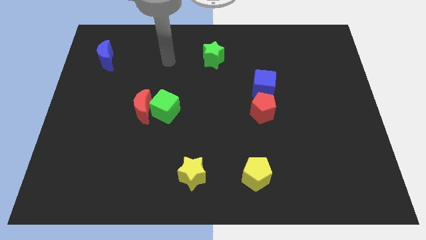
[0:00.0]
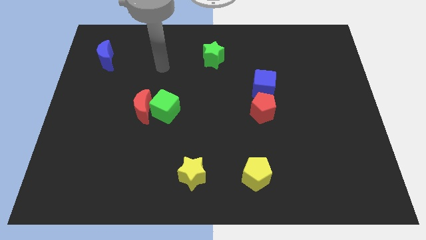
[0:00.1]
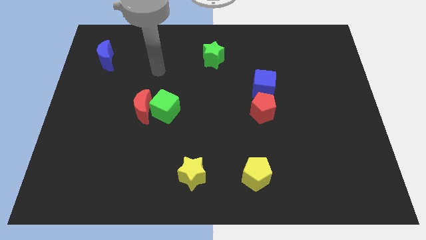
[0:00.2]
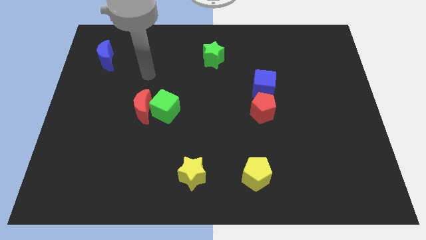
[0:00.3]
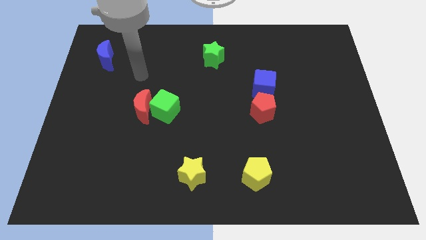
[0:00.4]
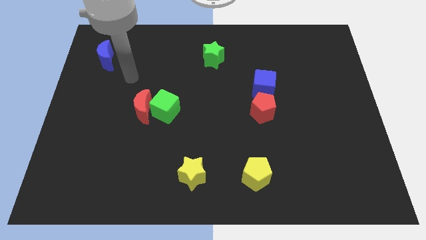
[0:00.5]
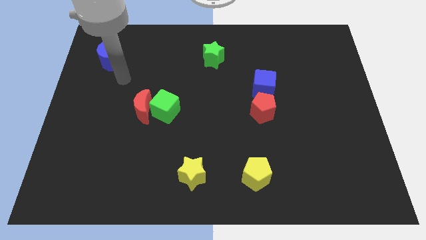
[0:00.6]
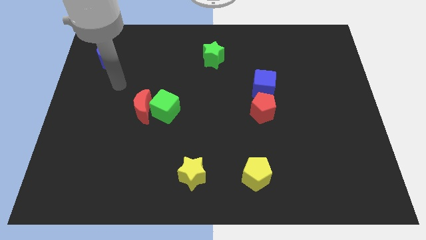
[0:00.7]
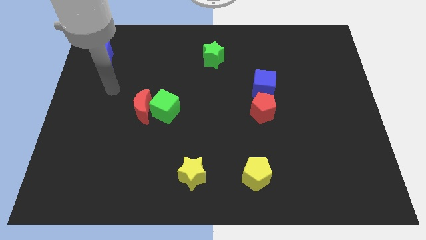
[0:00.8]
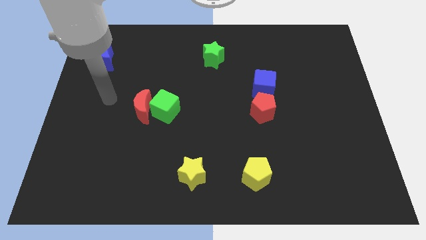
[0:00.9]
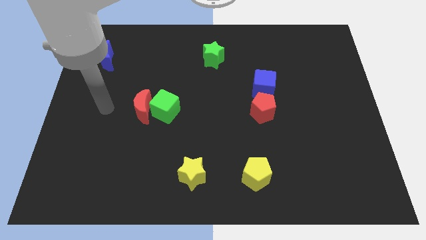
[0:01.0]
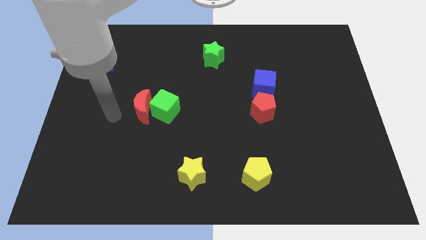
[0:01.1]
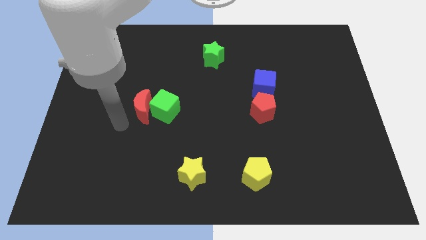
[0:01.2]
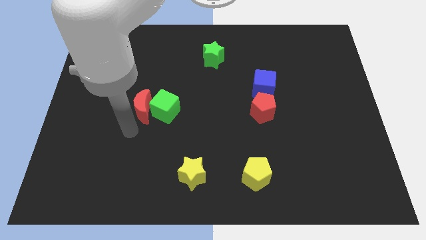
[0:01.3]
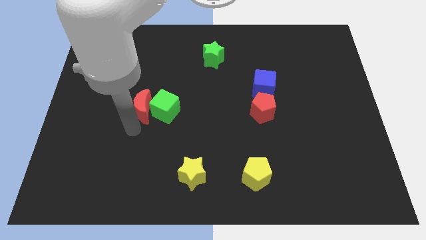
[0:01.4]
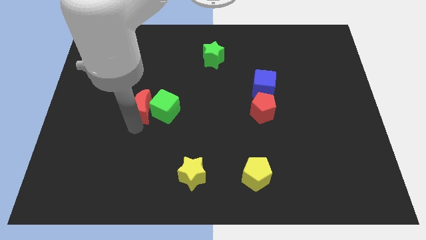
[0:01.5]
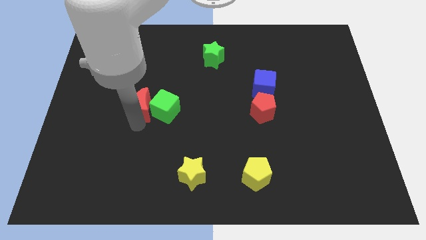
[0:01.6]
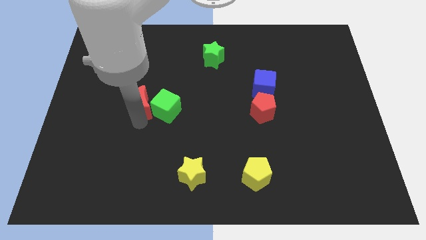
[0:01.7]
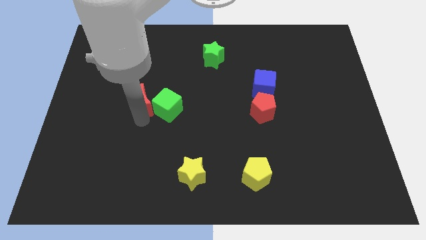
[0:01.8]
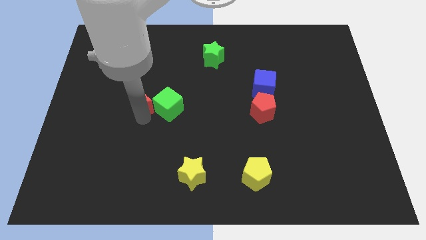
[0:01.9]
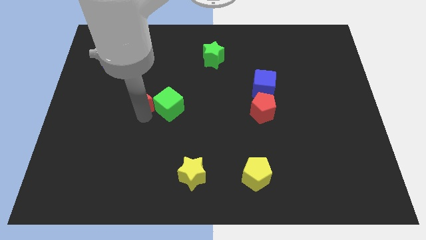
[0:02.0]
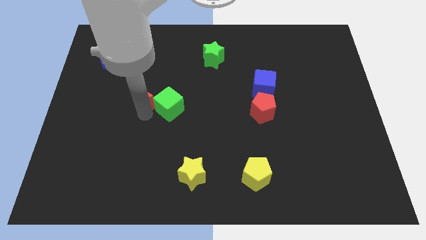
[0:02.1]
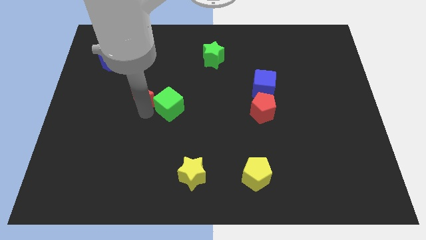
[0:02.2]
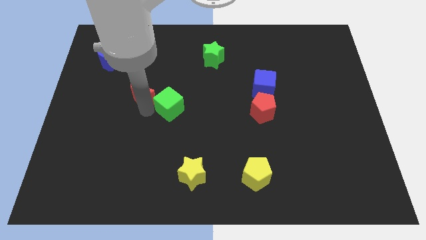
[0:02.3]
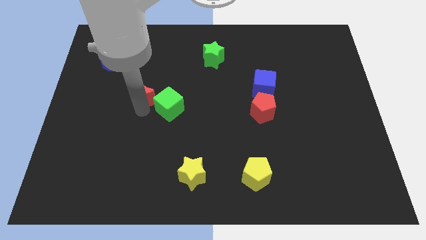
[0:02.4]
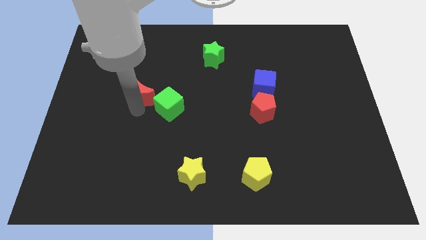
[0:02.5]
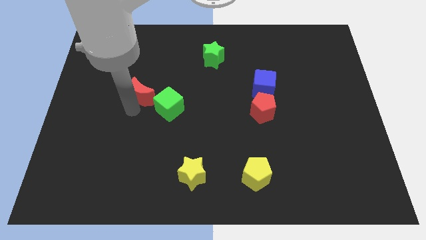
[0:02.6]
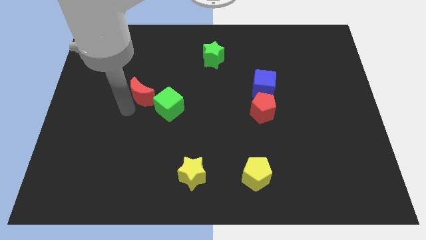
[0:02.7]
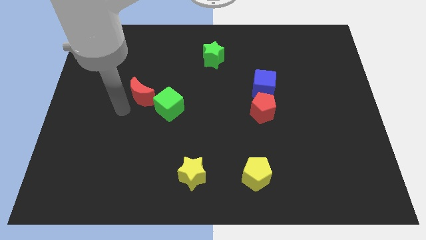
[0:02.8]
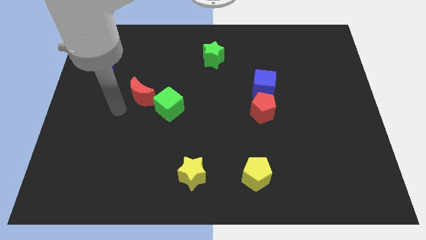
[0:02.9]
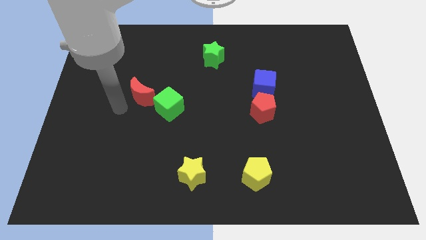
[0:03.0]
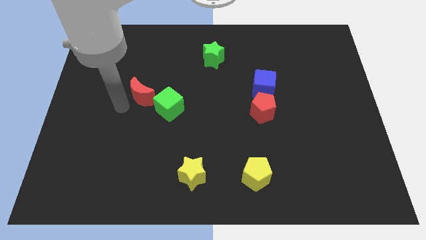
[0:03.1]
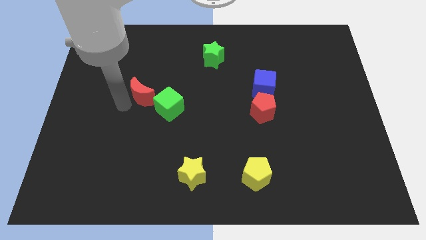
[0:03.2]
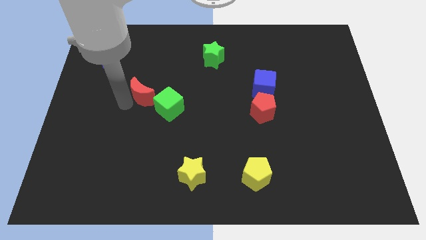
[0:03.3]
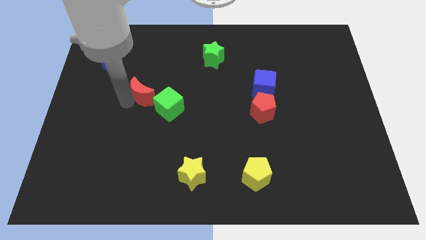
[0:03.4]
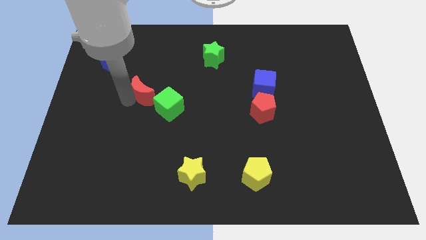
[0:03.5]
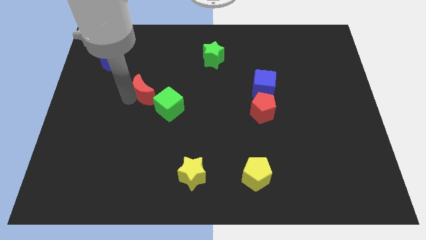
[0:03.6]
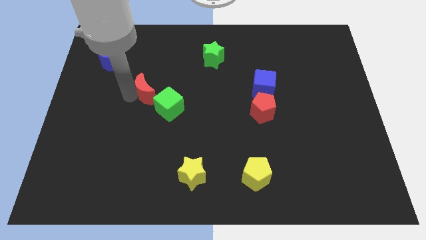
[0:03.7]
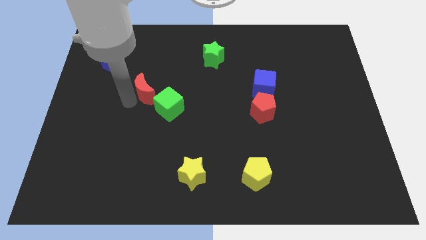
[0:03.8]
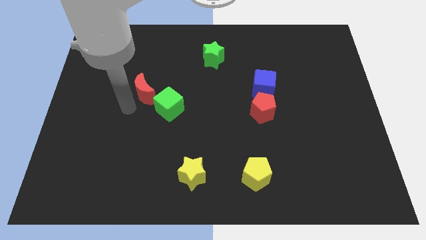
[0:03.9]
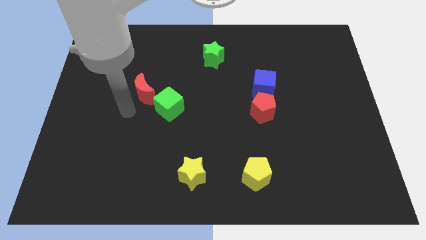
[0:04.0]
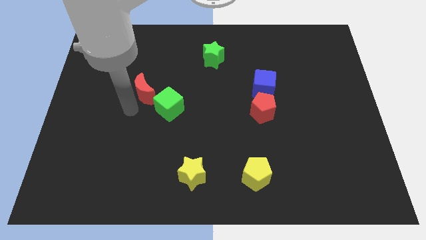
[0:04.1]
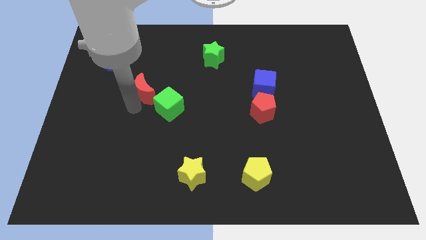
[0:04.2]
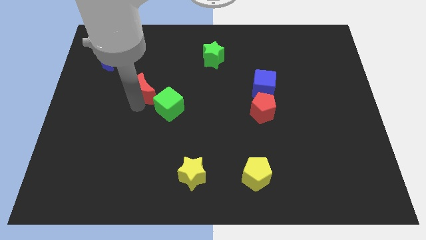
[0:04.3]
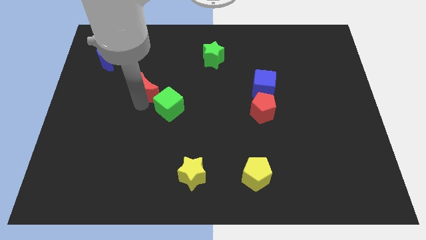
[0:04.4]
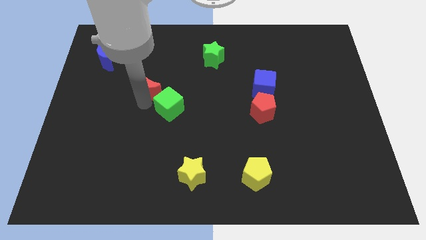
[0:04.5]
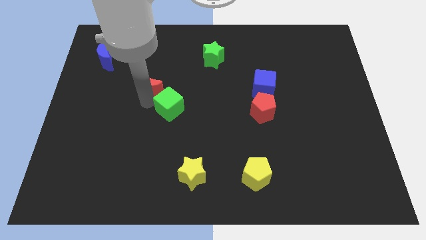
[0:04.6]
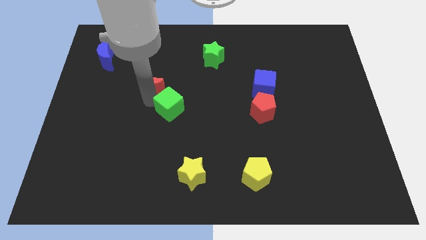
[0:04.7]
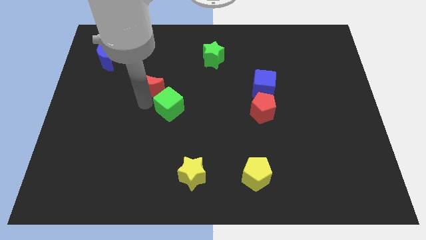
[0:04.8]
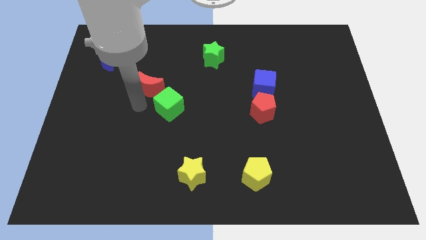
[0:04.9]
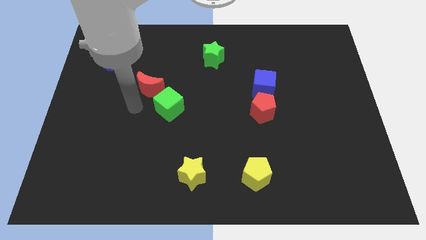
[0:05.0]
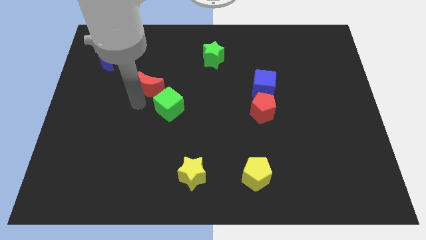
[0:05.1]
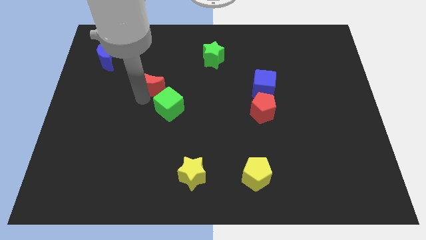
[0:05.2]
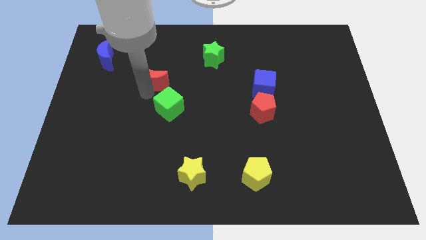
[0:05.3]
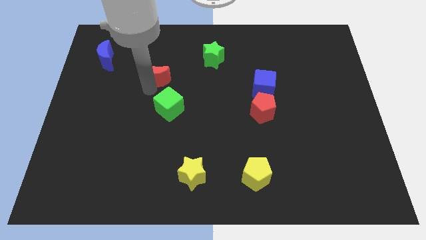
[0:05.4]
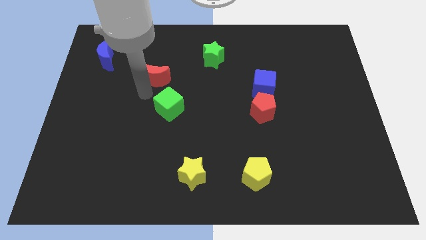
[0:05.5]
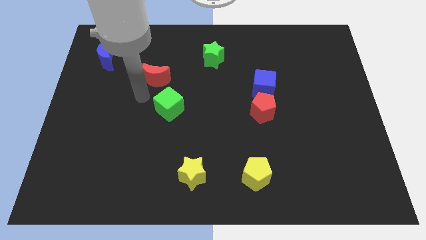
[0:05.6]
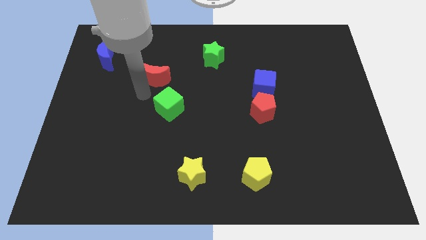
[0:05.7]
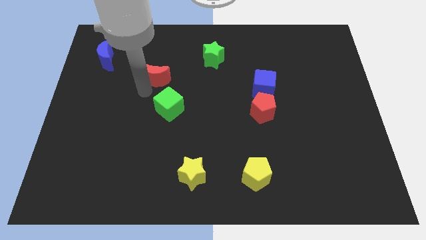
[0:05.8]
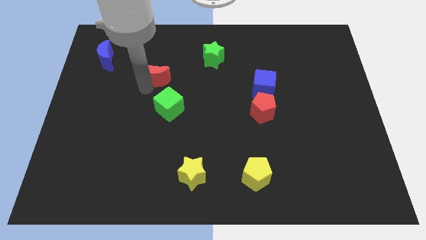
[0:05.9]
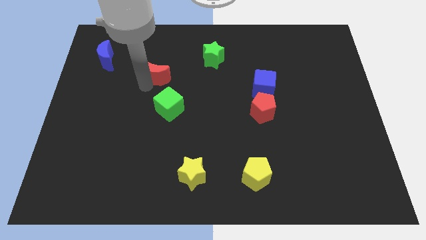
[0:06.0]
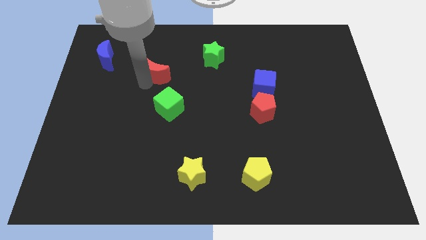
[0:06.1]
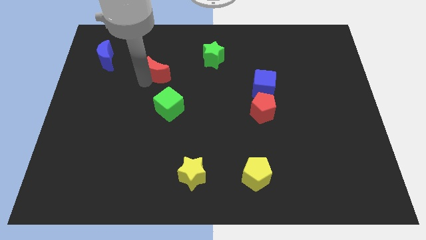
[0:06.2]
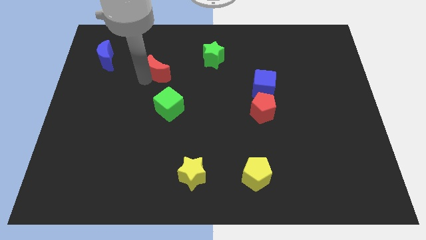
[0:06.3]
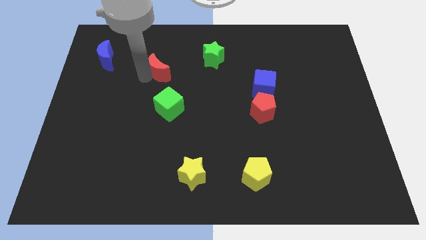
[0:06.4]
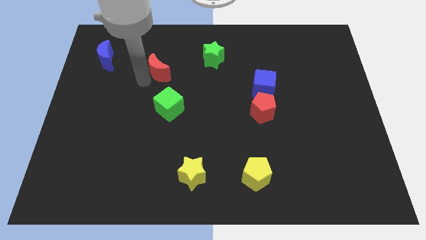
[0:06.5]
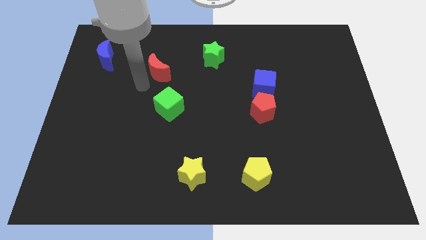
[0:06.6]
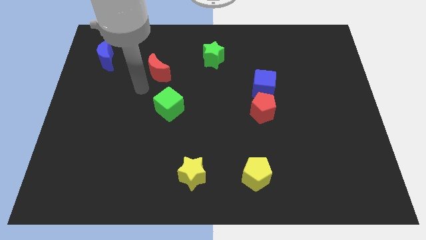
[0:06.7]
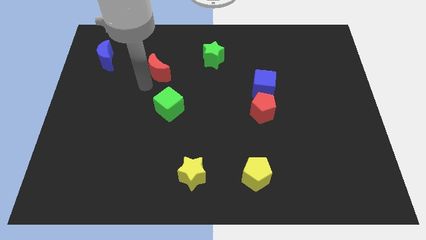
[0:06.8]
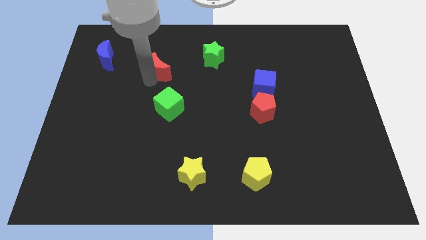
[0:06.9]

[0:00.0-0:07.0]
put the red moon to the left side of the green star

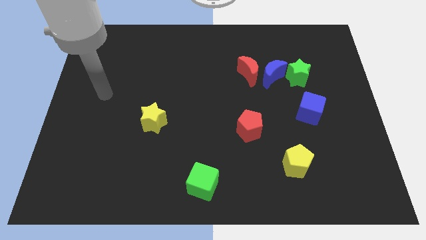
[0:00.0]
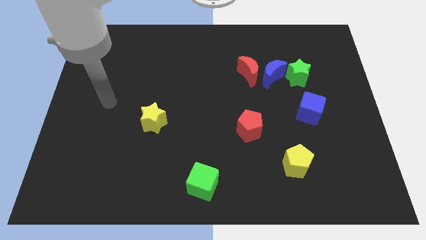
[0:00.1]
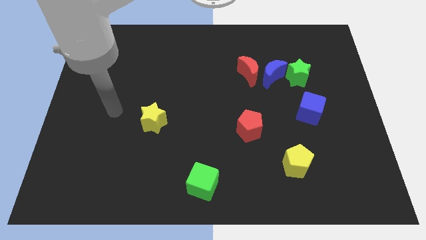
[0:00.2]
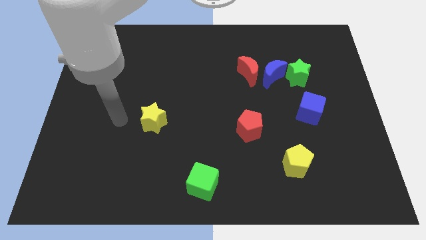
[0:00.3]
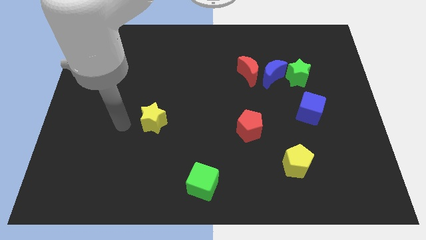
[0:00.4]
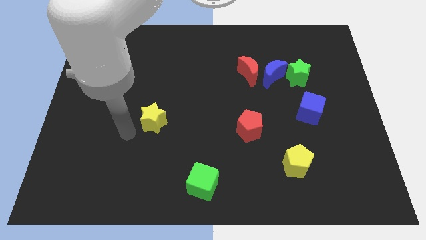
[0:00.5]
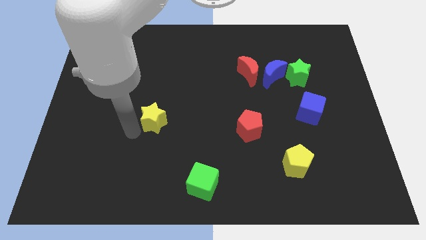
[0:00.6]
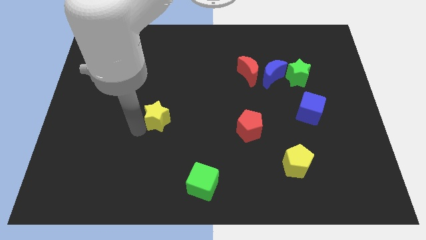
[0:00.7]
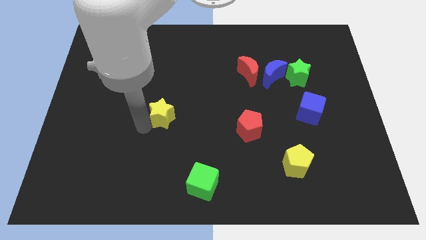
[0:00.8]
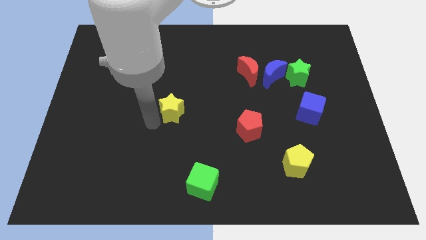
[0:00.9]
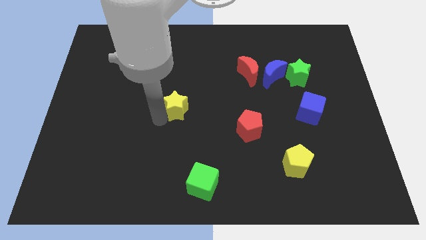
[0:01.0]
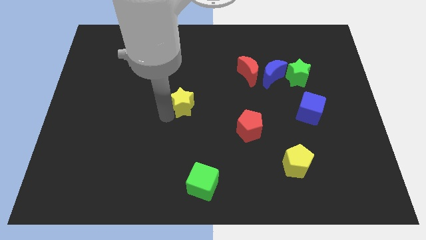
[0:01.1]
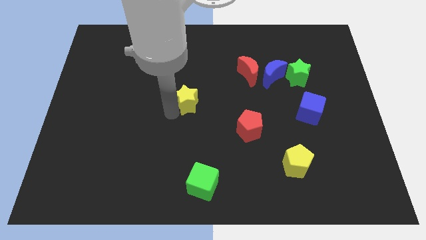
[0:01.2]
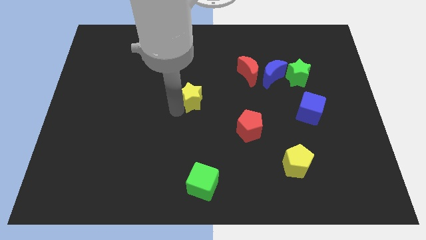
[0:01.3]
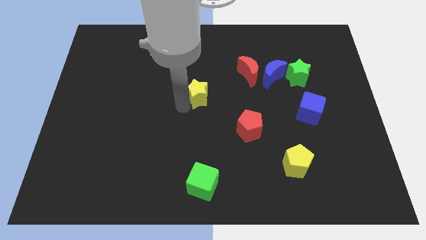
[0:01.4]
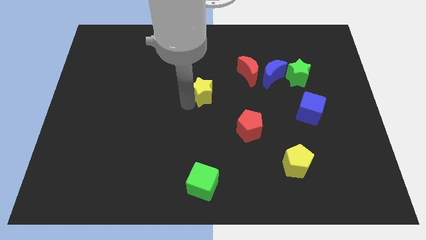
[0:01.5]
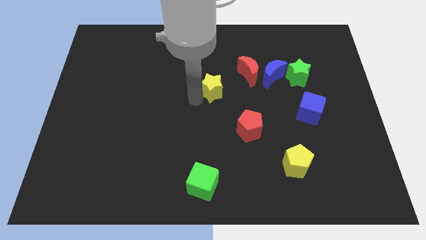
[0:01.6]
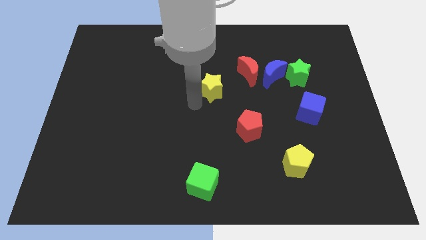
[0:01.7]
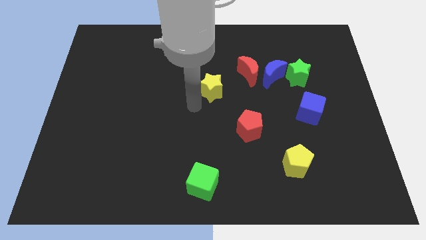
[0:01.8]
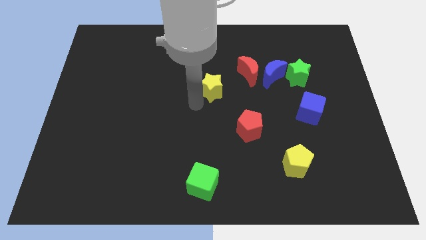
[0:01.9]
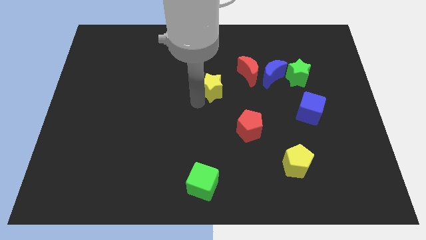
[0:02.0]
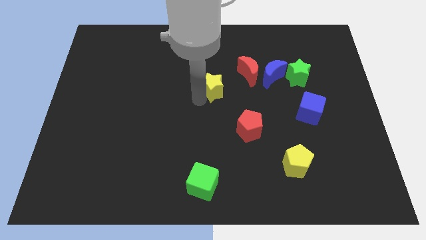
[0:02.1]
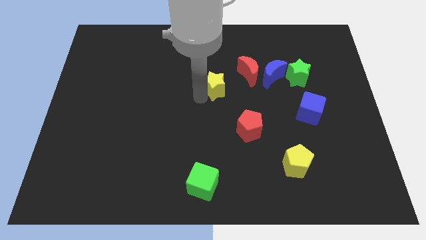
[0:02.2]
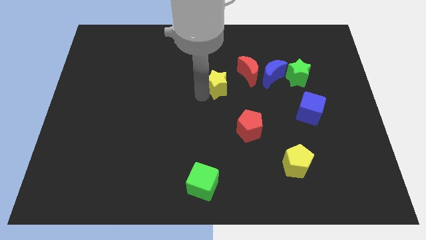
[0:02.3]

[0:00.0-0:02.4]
put the yellow star just left of the blue moon
